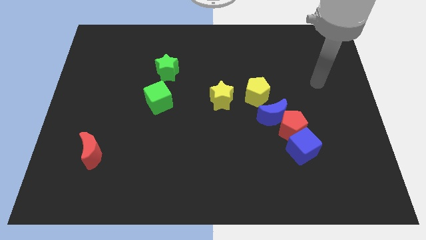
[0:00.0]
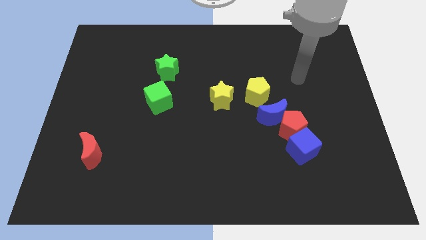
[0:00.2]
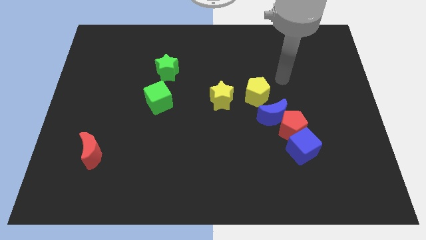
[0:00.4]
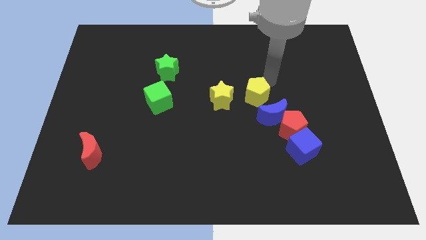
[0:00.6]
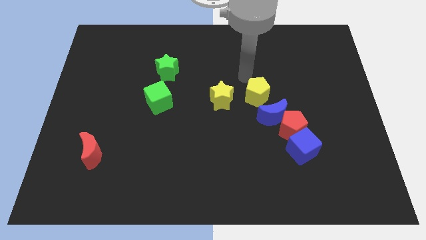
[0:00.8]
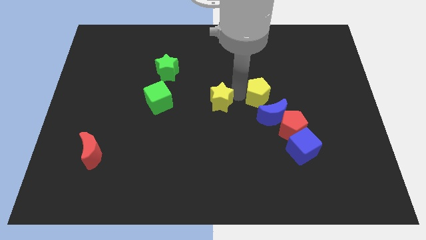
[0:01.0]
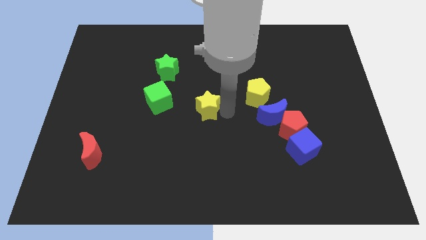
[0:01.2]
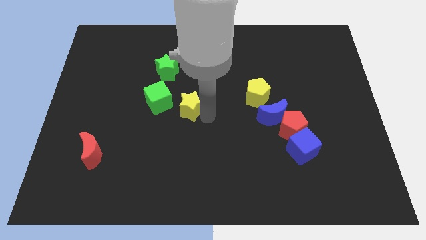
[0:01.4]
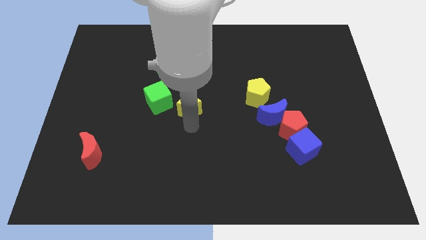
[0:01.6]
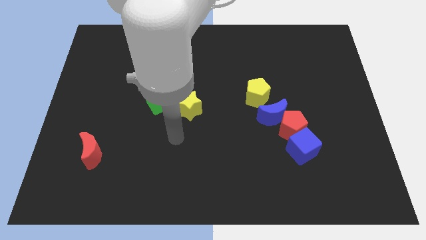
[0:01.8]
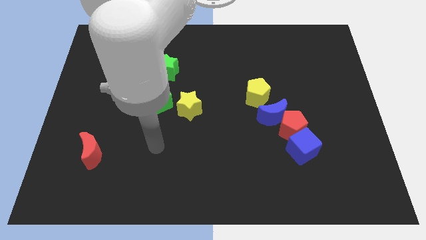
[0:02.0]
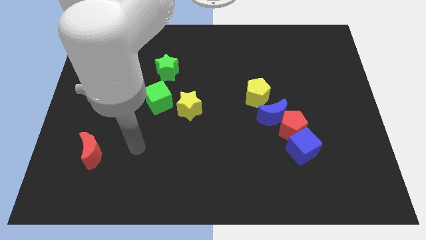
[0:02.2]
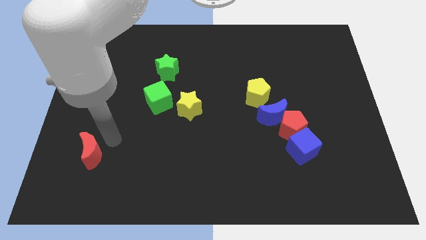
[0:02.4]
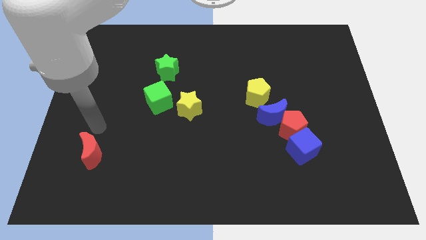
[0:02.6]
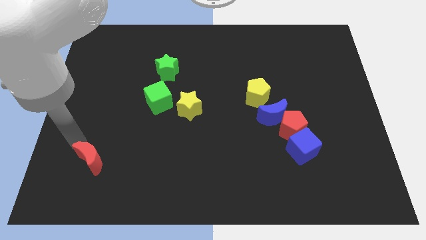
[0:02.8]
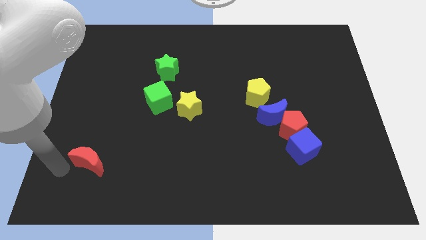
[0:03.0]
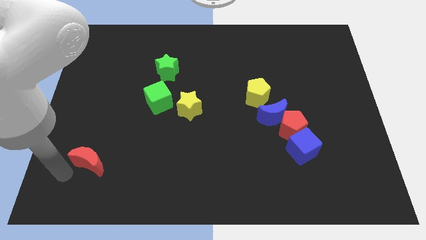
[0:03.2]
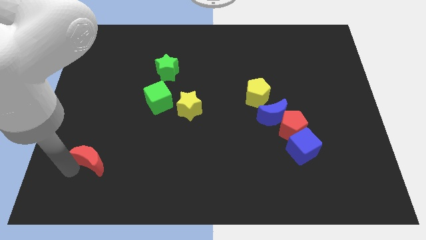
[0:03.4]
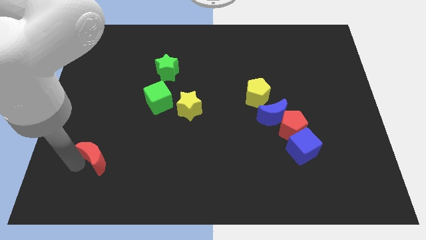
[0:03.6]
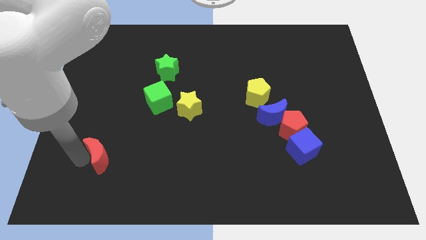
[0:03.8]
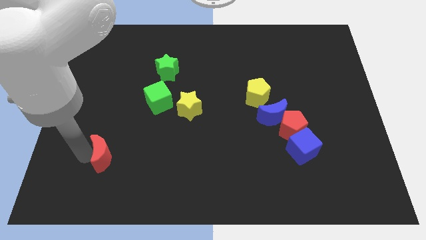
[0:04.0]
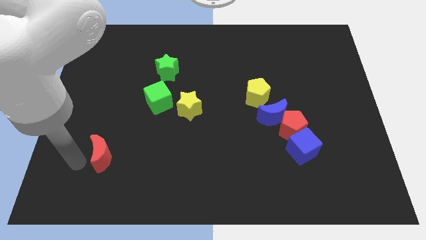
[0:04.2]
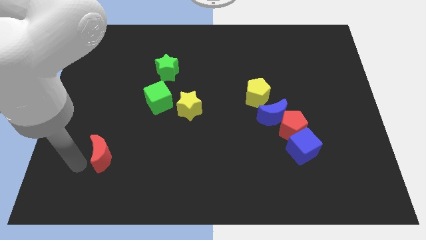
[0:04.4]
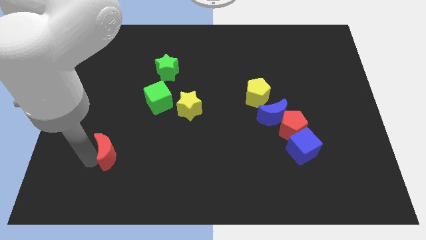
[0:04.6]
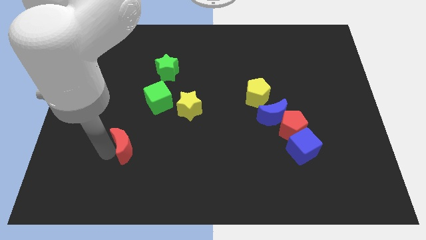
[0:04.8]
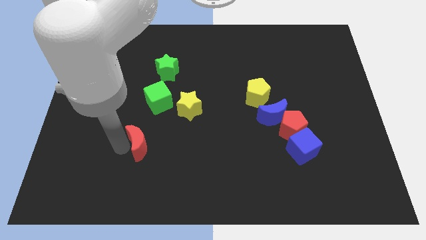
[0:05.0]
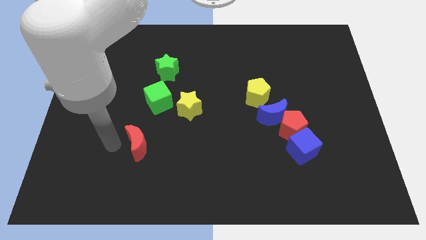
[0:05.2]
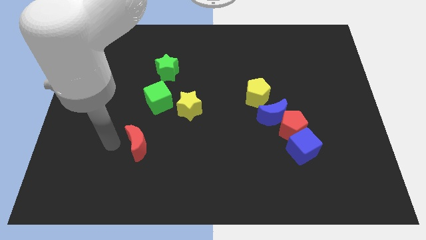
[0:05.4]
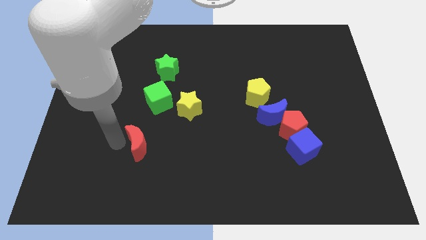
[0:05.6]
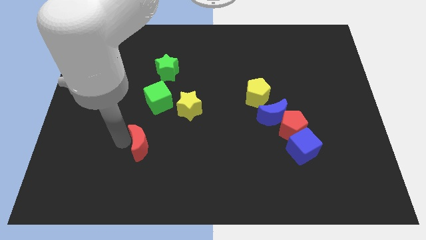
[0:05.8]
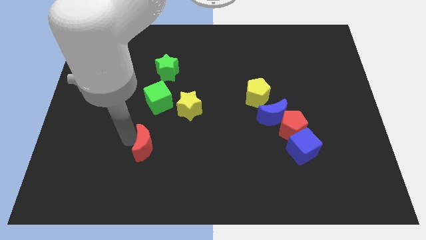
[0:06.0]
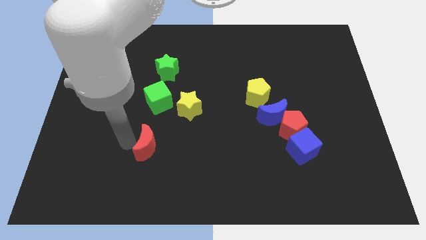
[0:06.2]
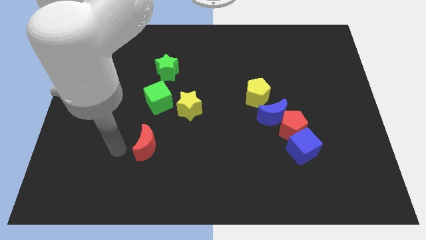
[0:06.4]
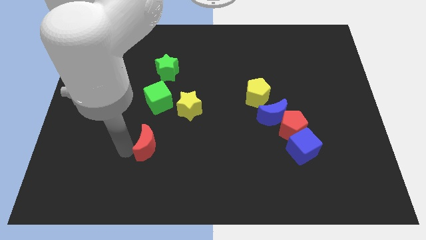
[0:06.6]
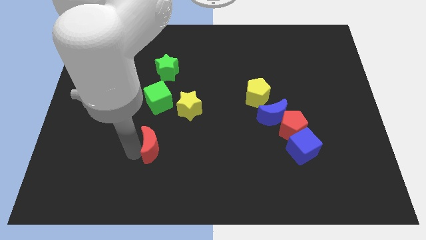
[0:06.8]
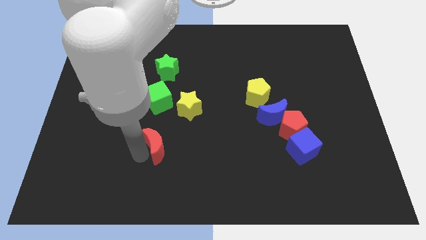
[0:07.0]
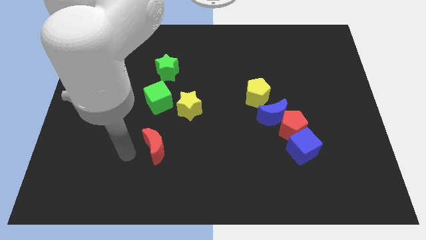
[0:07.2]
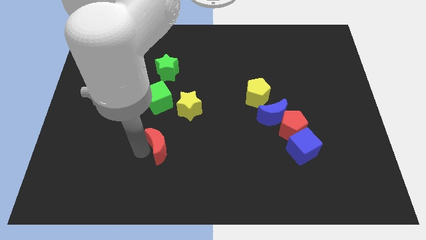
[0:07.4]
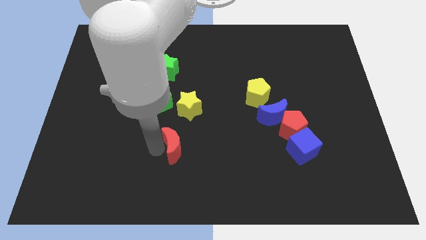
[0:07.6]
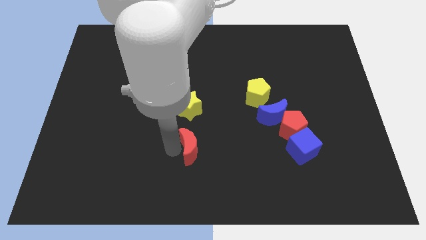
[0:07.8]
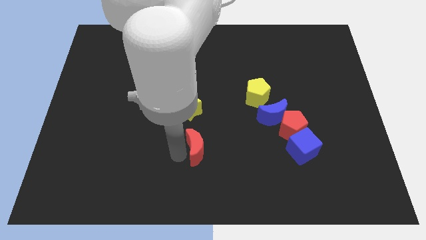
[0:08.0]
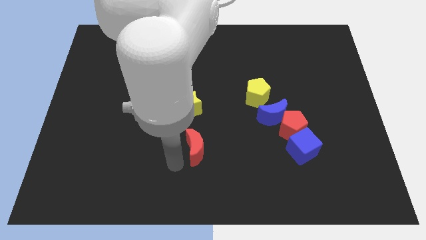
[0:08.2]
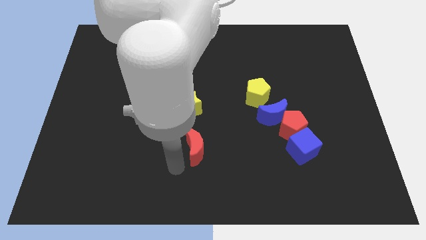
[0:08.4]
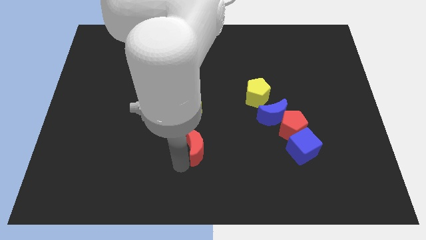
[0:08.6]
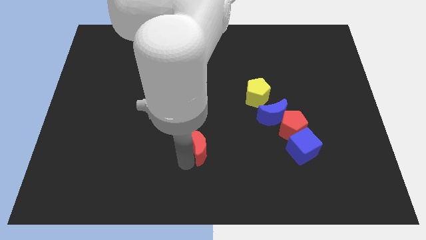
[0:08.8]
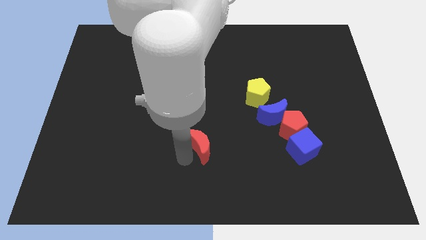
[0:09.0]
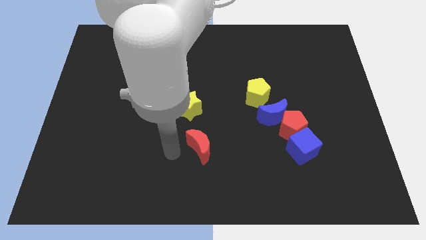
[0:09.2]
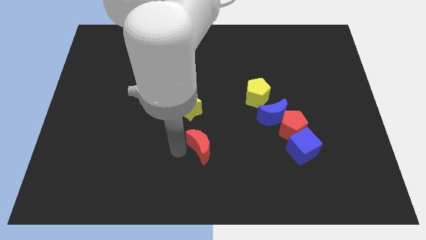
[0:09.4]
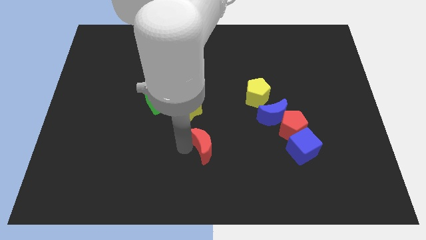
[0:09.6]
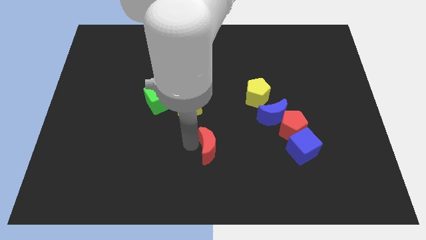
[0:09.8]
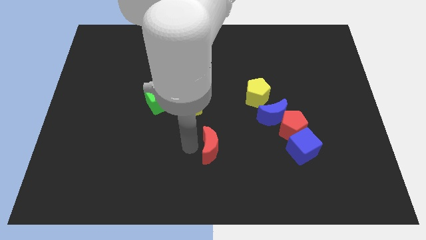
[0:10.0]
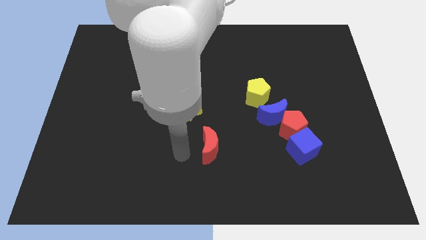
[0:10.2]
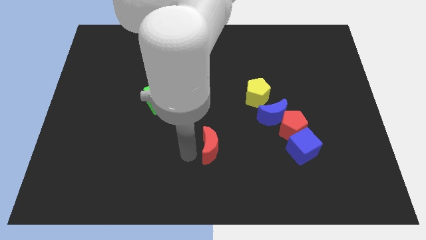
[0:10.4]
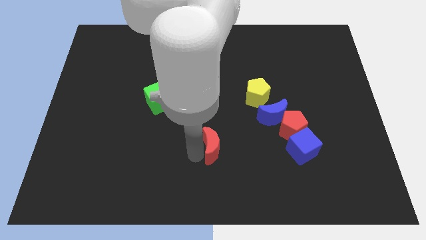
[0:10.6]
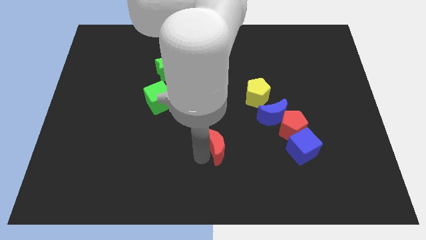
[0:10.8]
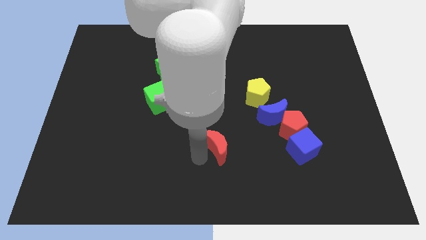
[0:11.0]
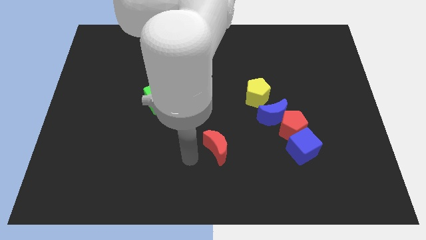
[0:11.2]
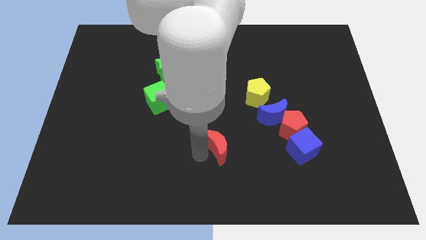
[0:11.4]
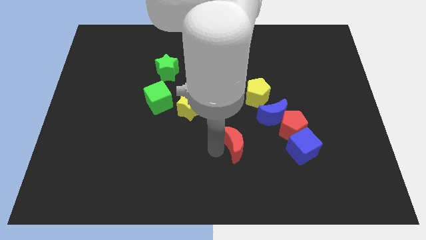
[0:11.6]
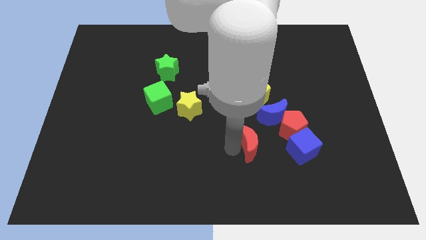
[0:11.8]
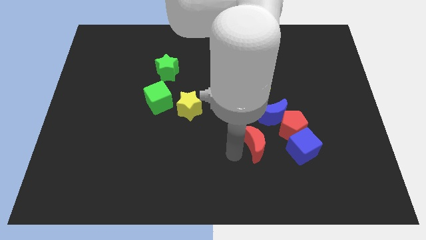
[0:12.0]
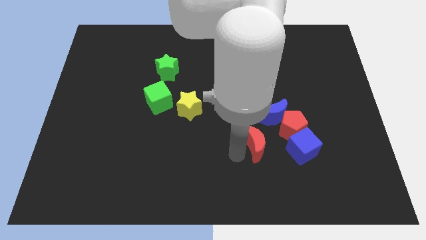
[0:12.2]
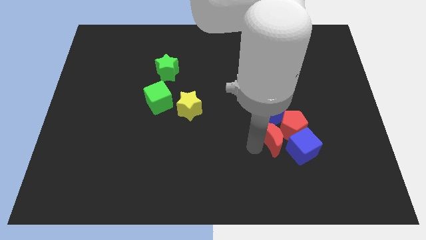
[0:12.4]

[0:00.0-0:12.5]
put the red moon next to the red pentagon

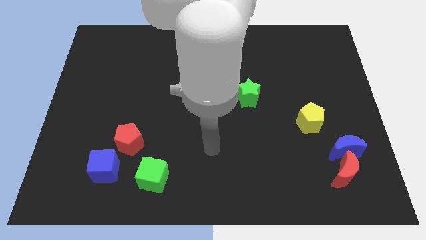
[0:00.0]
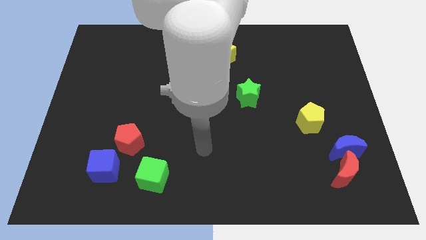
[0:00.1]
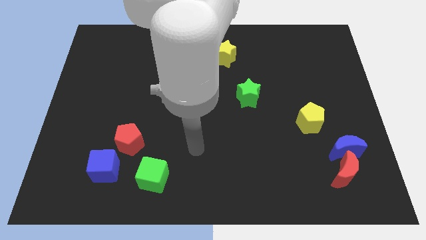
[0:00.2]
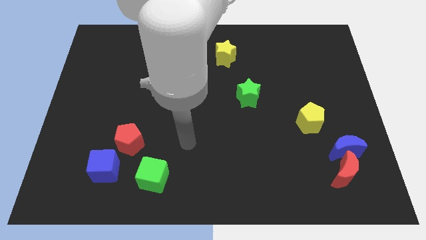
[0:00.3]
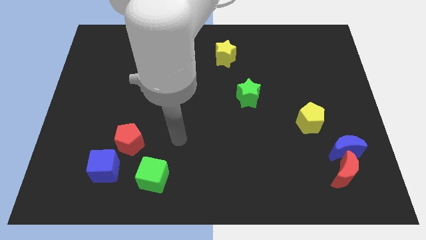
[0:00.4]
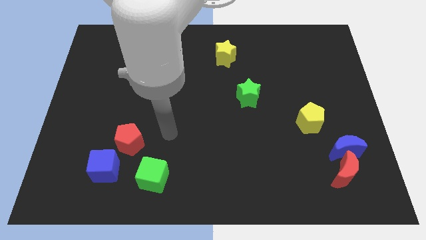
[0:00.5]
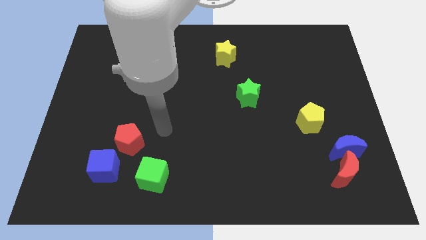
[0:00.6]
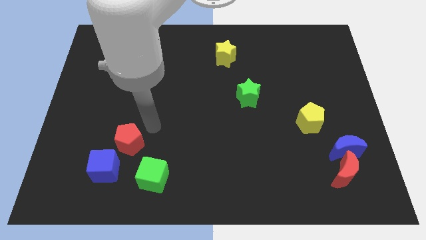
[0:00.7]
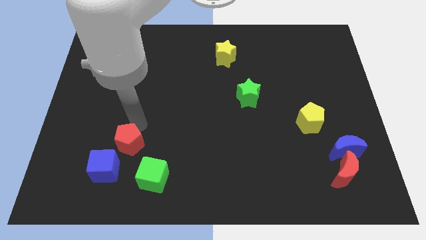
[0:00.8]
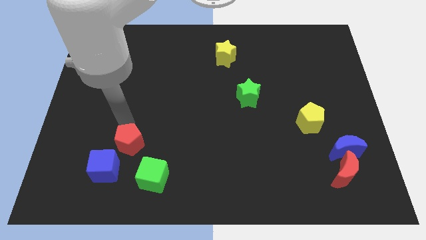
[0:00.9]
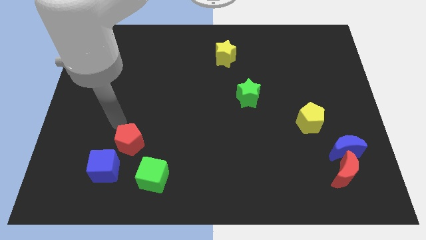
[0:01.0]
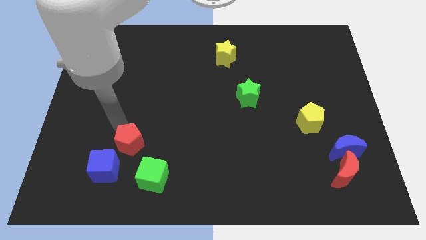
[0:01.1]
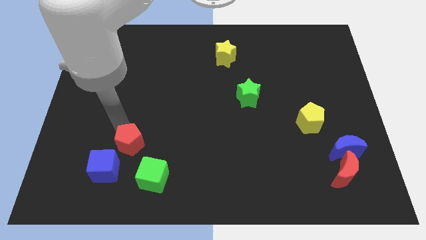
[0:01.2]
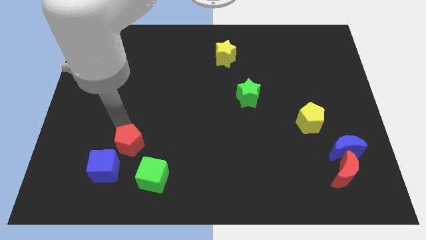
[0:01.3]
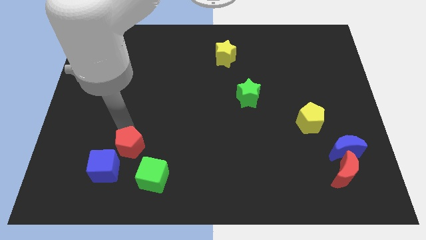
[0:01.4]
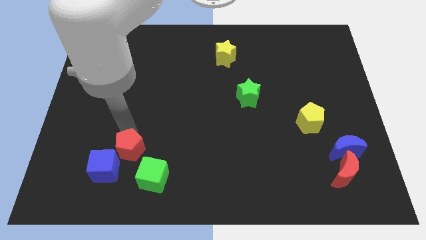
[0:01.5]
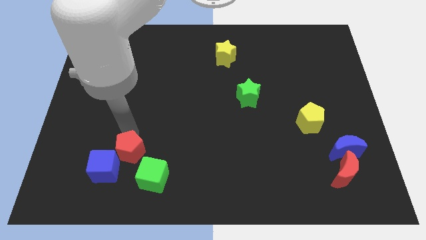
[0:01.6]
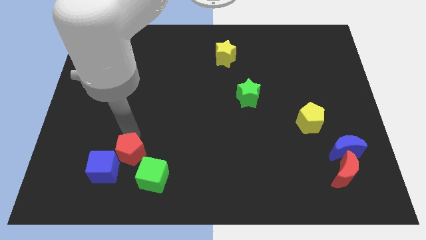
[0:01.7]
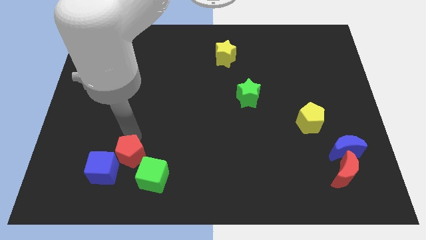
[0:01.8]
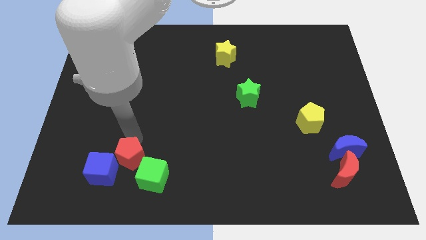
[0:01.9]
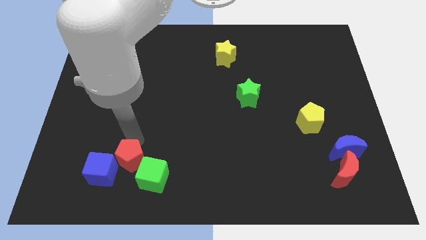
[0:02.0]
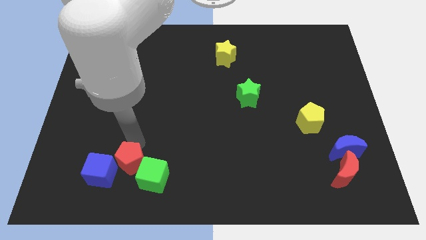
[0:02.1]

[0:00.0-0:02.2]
slide the red pentagon close to the green cube
